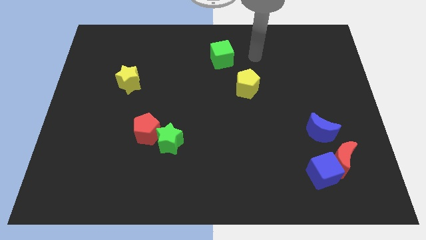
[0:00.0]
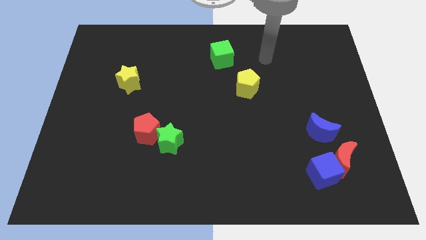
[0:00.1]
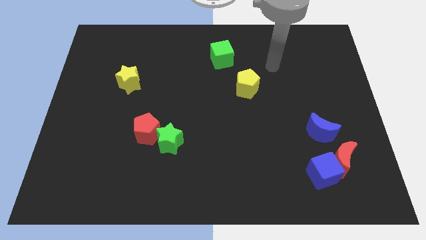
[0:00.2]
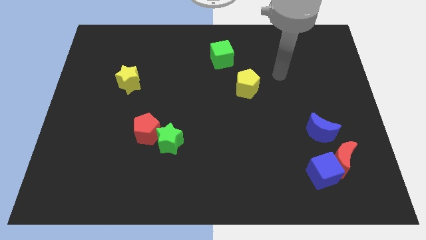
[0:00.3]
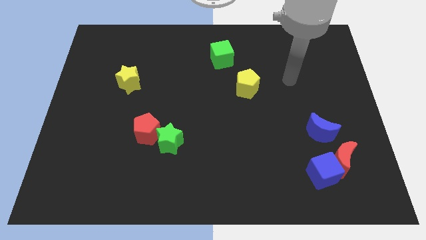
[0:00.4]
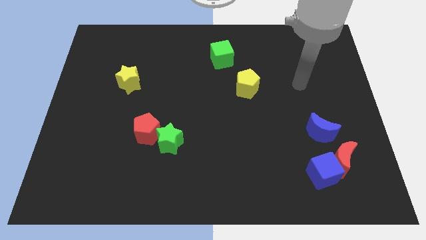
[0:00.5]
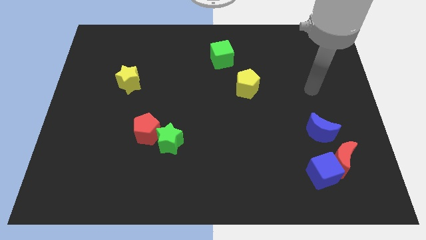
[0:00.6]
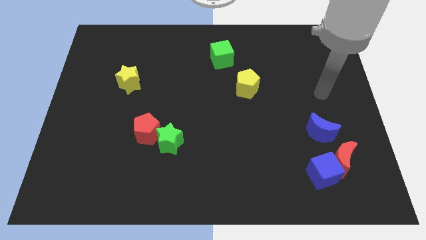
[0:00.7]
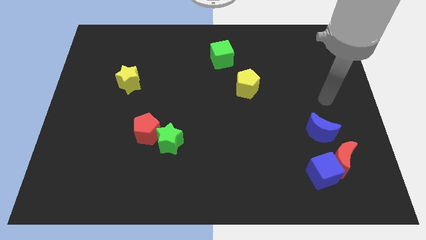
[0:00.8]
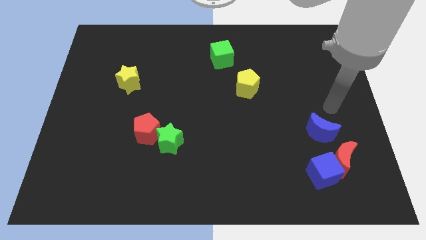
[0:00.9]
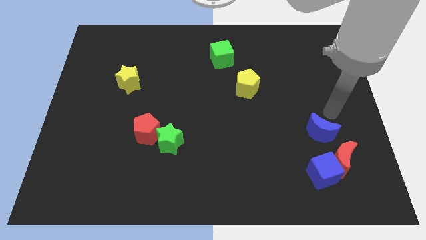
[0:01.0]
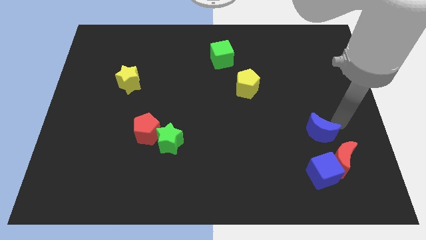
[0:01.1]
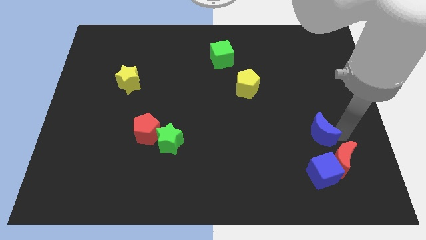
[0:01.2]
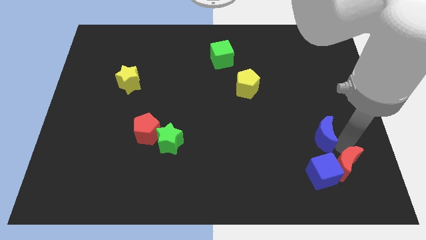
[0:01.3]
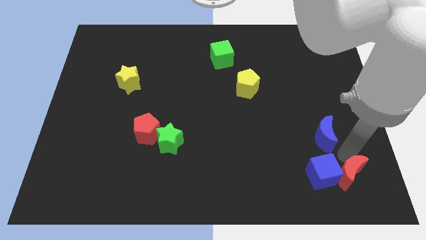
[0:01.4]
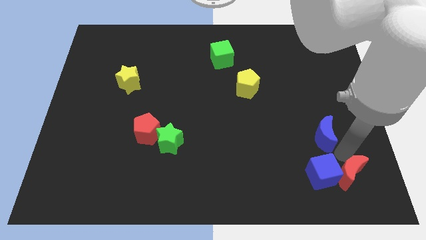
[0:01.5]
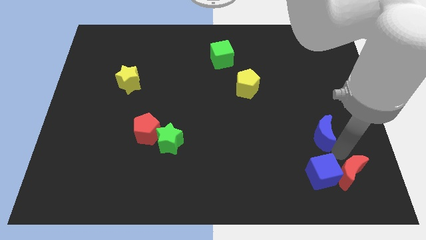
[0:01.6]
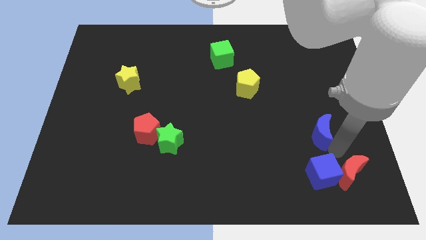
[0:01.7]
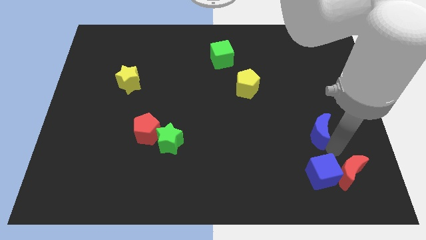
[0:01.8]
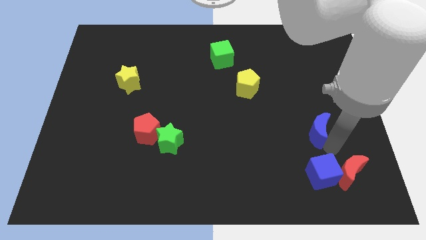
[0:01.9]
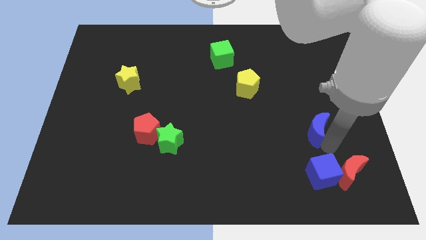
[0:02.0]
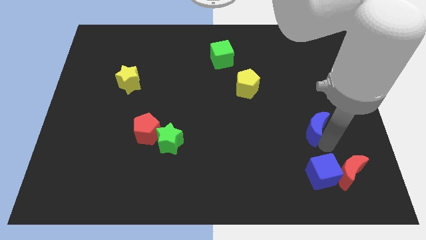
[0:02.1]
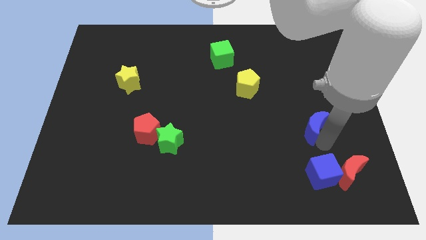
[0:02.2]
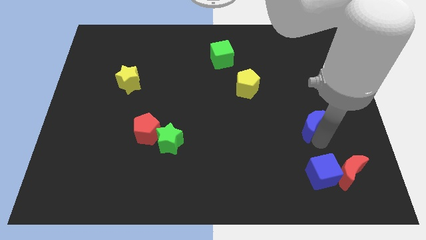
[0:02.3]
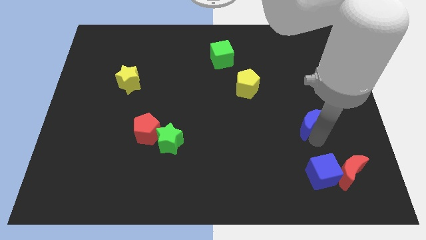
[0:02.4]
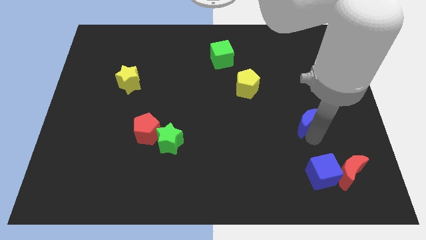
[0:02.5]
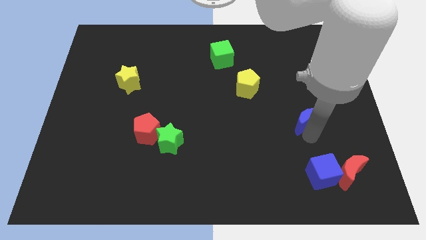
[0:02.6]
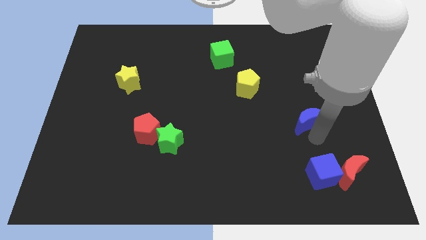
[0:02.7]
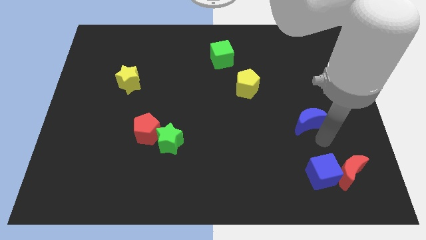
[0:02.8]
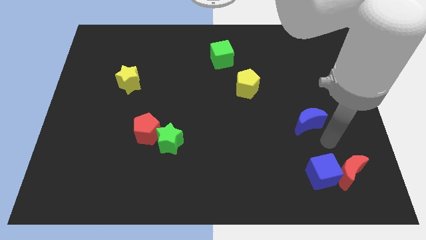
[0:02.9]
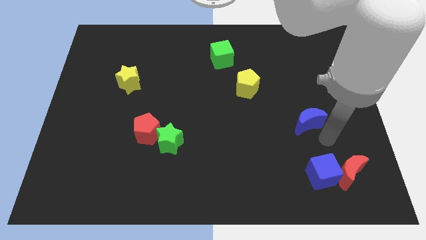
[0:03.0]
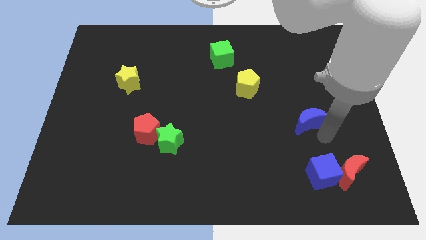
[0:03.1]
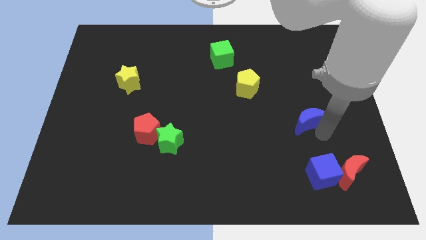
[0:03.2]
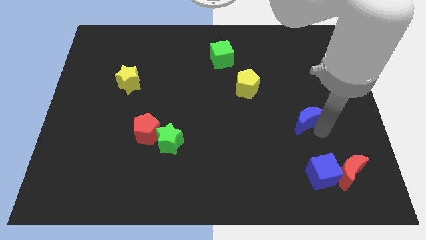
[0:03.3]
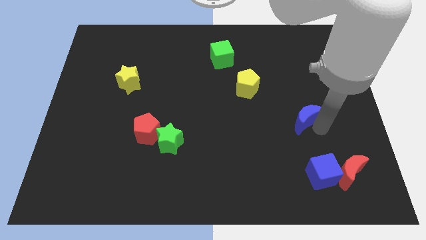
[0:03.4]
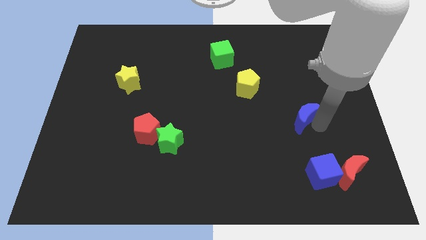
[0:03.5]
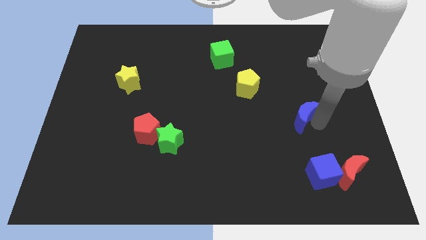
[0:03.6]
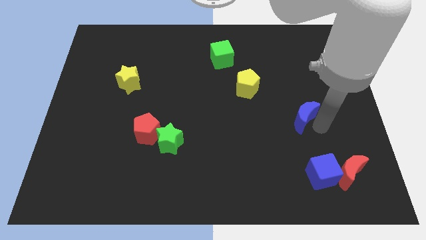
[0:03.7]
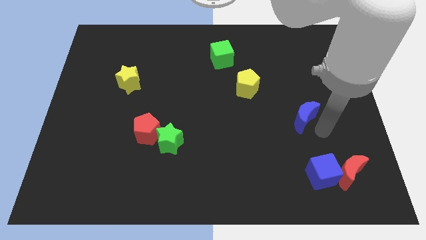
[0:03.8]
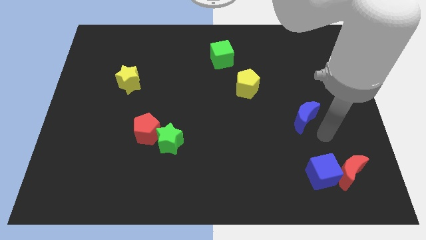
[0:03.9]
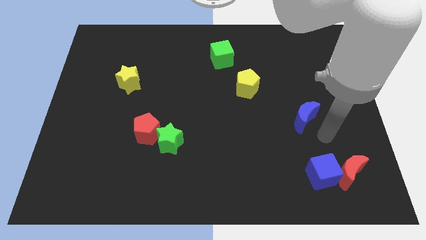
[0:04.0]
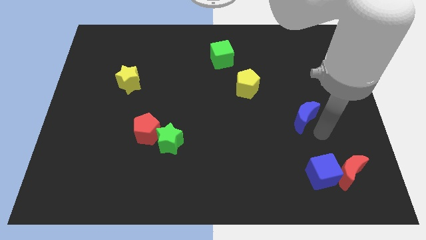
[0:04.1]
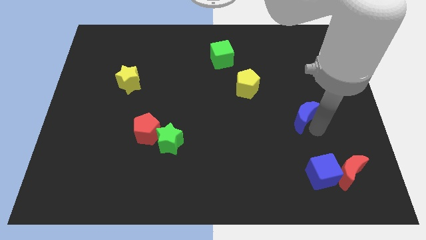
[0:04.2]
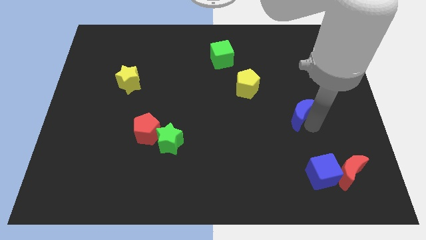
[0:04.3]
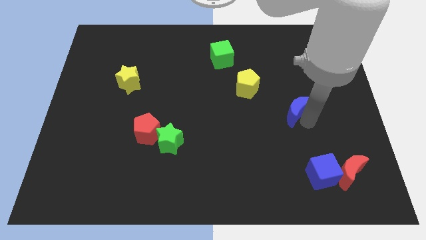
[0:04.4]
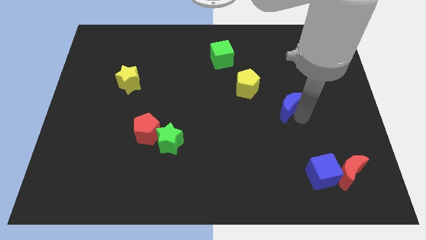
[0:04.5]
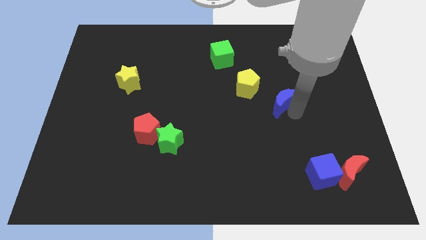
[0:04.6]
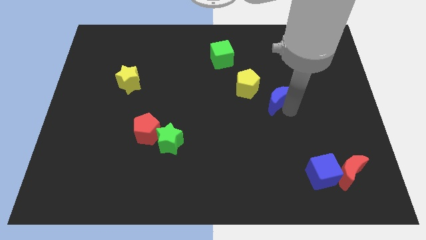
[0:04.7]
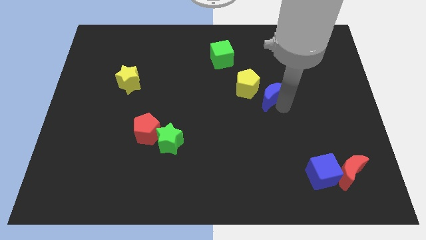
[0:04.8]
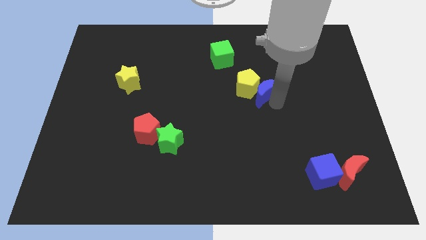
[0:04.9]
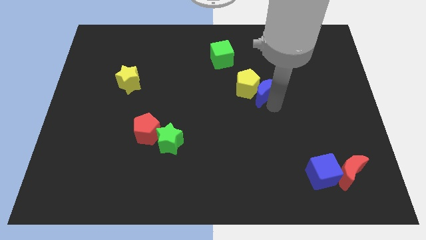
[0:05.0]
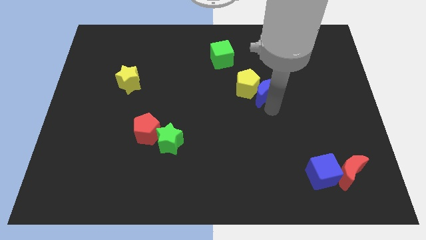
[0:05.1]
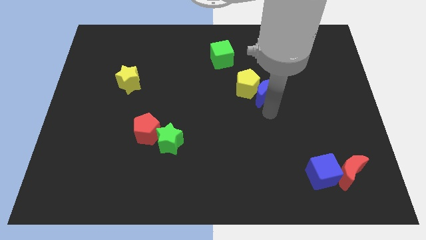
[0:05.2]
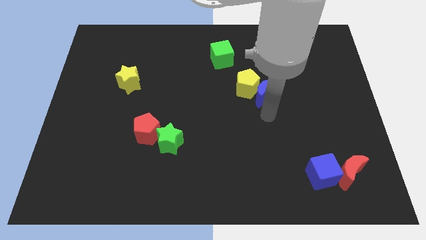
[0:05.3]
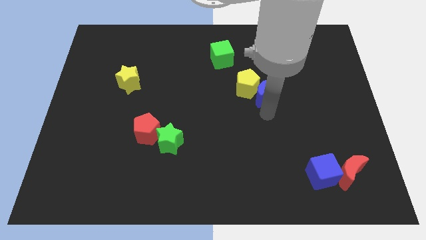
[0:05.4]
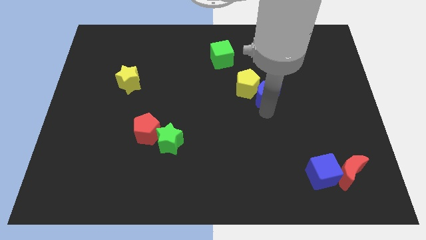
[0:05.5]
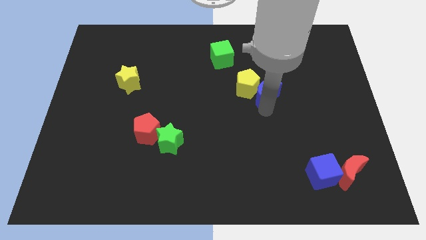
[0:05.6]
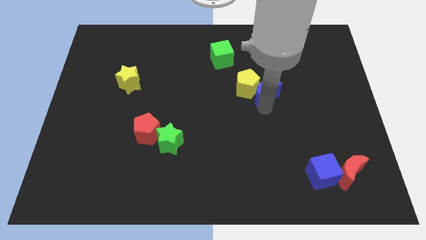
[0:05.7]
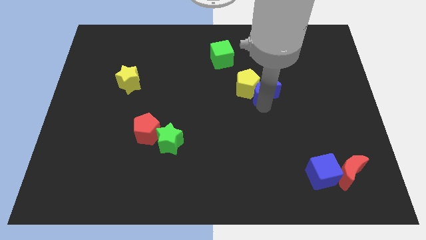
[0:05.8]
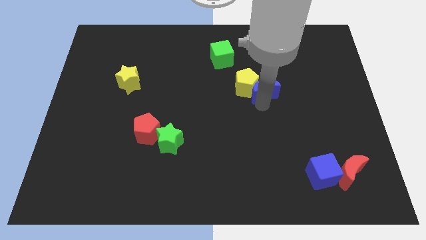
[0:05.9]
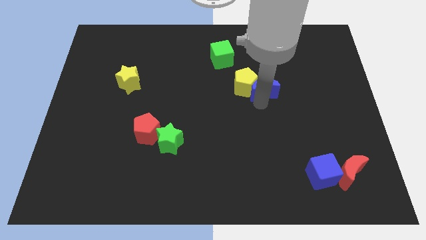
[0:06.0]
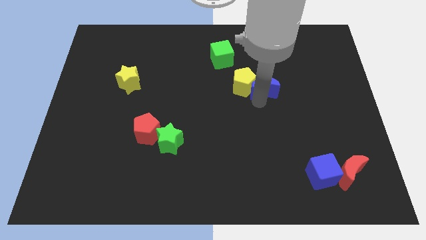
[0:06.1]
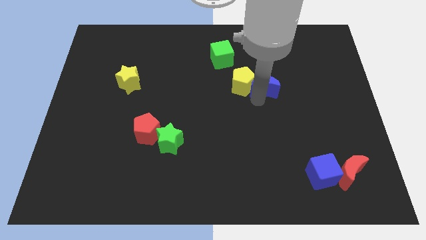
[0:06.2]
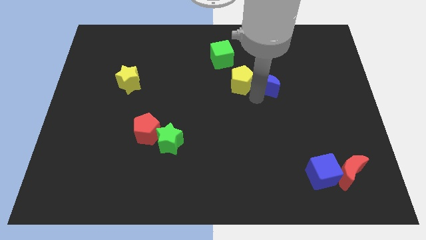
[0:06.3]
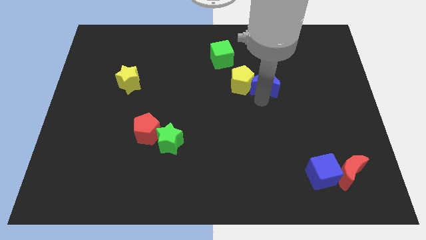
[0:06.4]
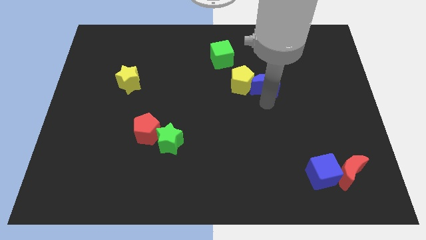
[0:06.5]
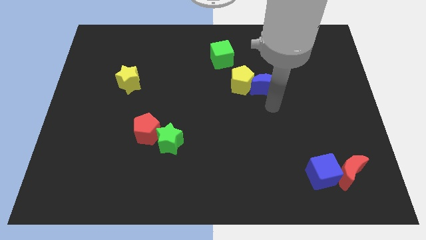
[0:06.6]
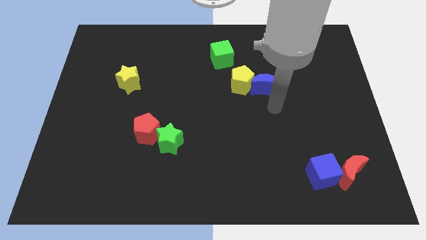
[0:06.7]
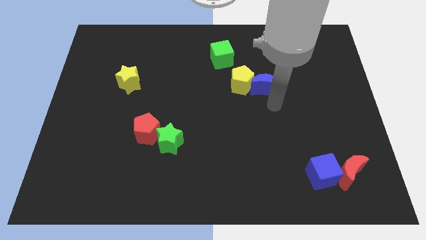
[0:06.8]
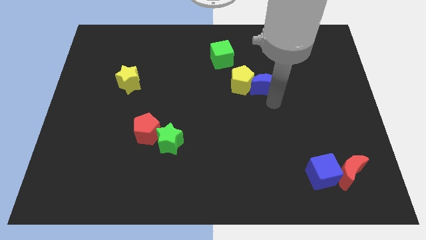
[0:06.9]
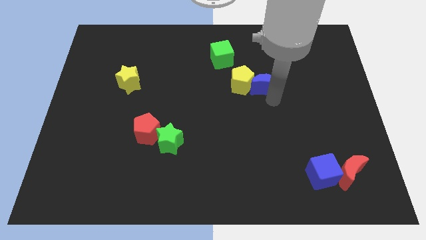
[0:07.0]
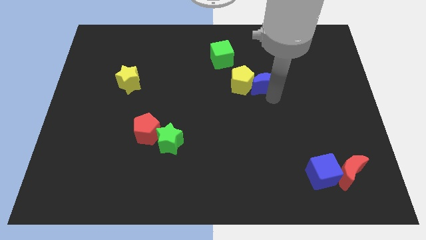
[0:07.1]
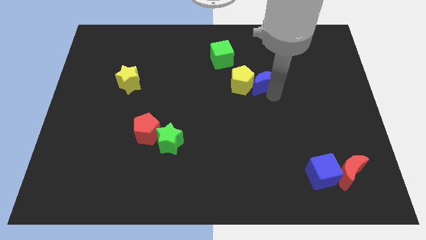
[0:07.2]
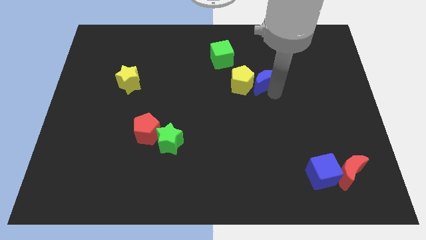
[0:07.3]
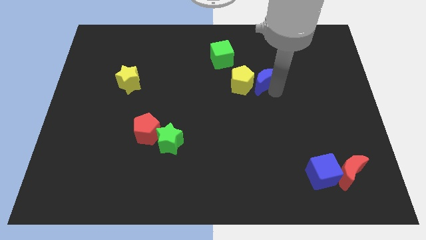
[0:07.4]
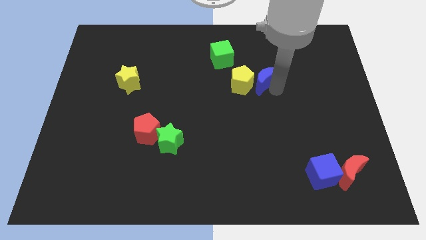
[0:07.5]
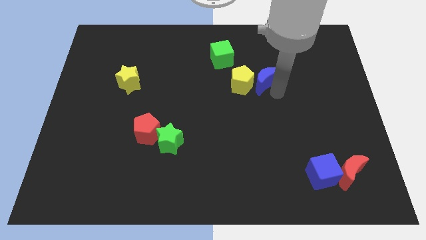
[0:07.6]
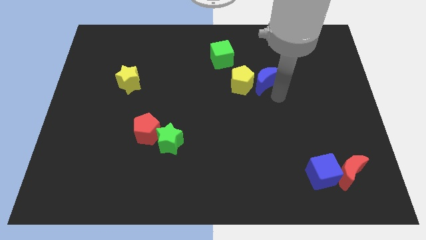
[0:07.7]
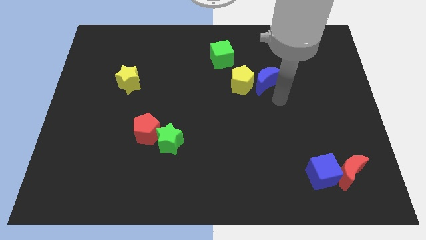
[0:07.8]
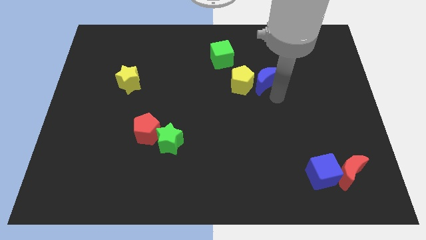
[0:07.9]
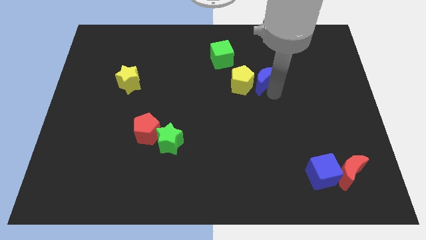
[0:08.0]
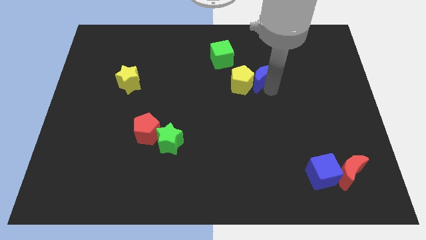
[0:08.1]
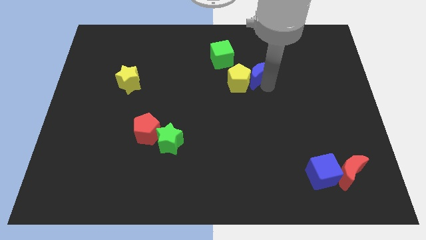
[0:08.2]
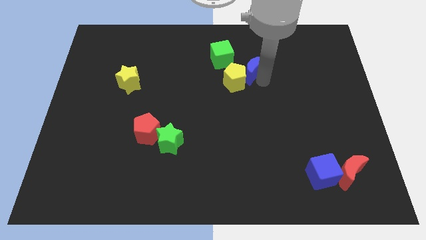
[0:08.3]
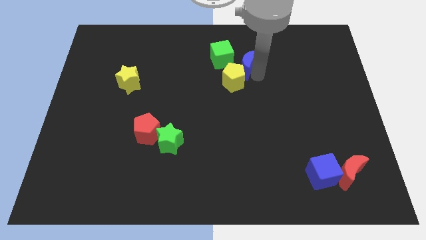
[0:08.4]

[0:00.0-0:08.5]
move the blue moon above the yellow pentagon

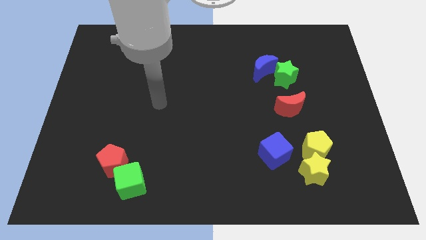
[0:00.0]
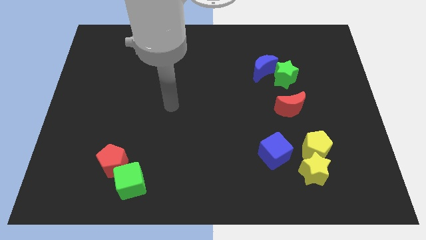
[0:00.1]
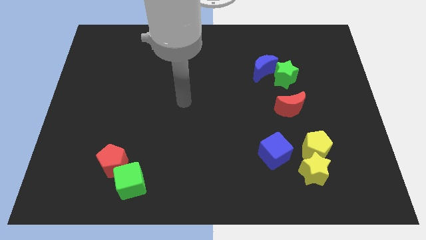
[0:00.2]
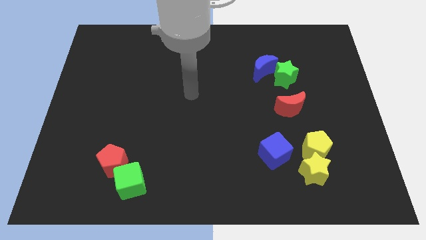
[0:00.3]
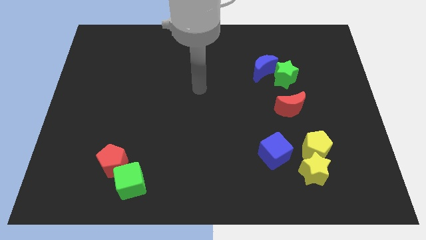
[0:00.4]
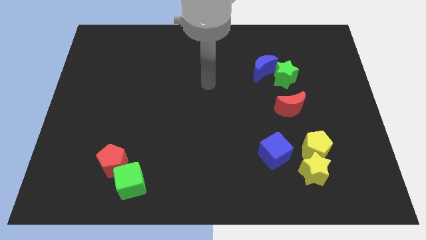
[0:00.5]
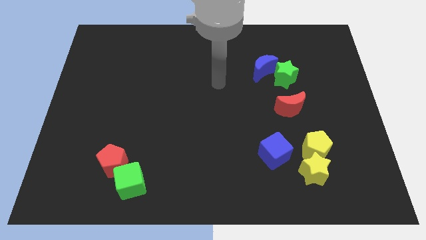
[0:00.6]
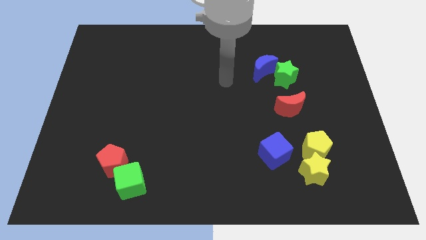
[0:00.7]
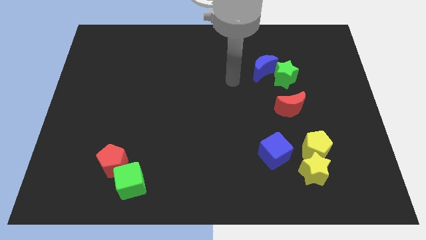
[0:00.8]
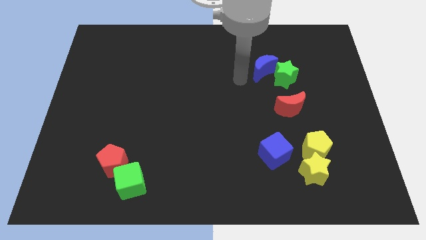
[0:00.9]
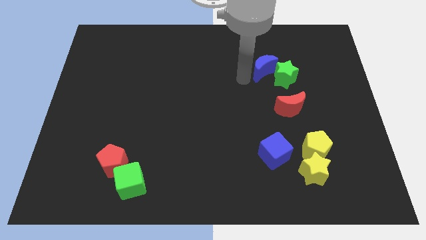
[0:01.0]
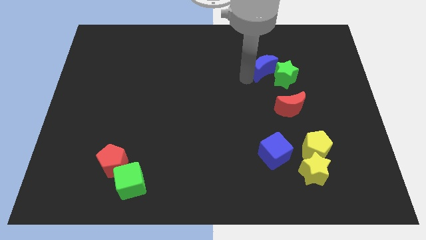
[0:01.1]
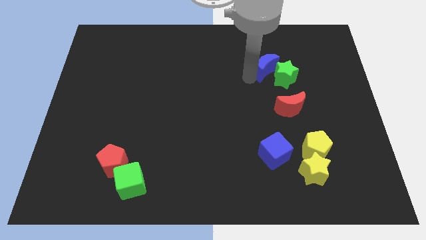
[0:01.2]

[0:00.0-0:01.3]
push the blue moon above the red moon
